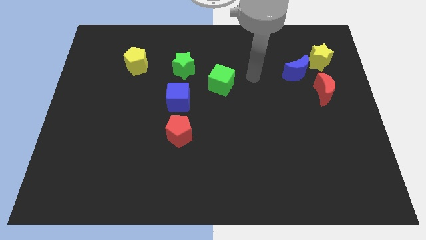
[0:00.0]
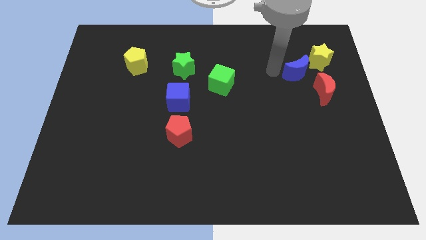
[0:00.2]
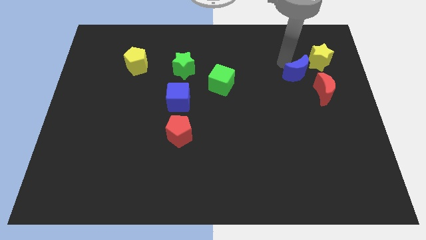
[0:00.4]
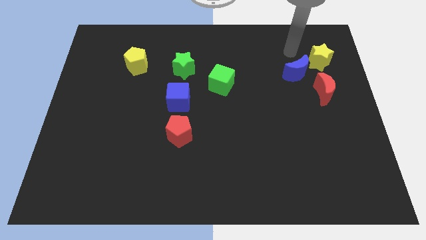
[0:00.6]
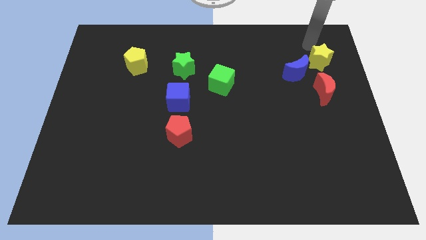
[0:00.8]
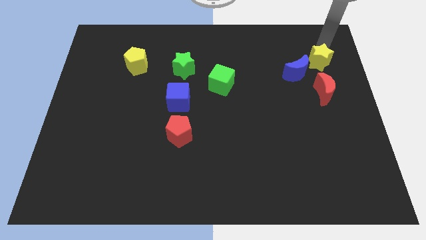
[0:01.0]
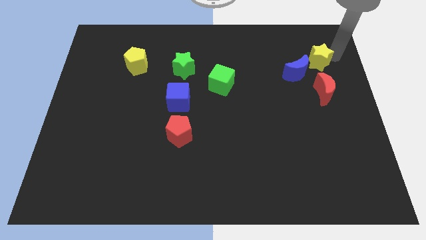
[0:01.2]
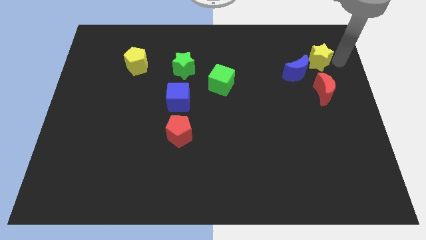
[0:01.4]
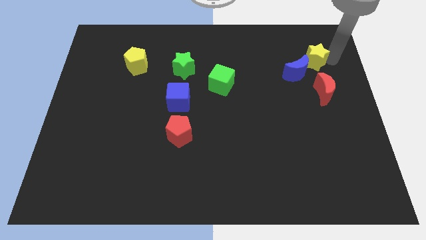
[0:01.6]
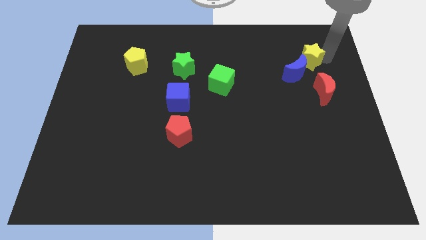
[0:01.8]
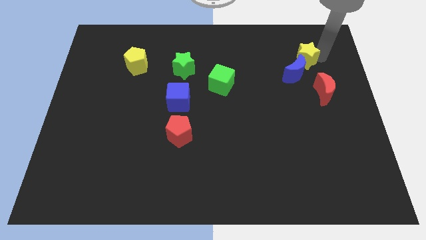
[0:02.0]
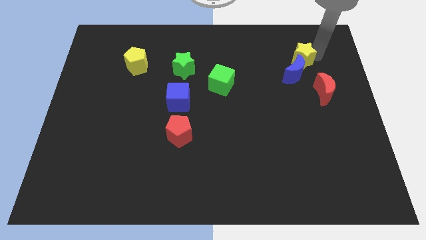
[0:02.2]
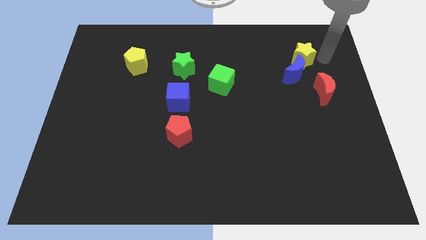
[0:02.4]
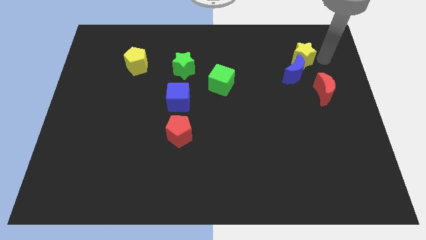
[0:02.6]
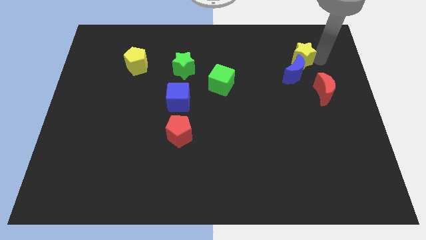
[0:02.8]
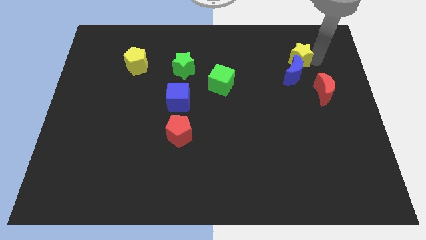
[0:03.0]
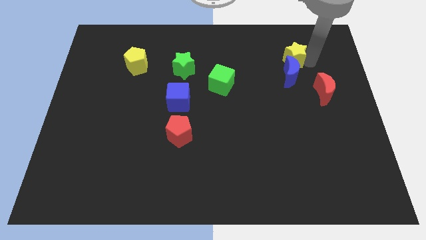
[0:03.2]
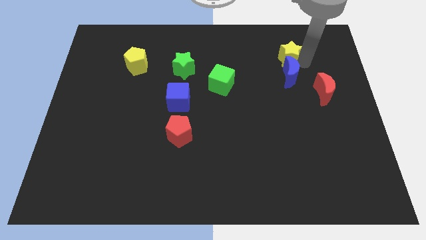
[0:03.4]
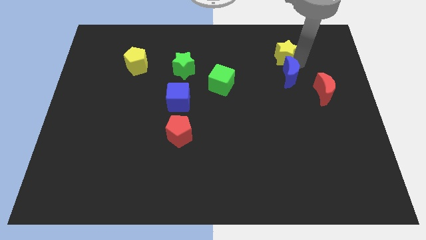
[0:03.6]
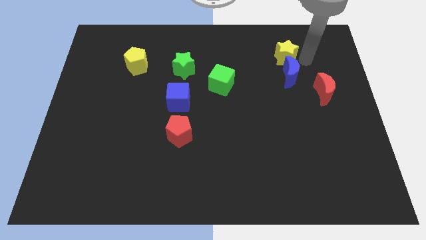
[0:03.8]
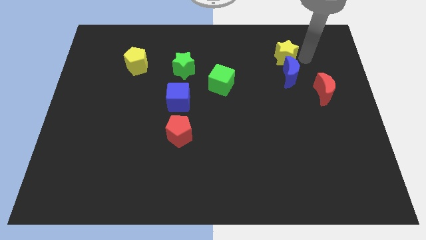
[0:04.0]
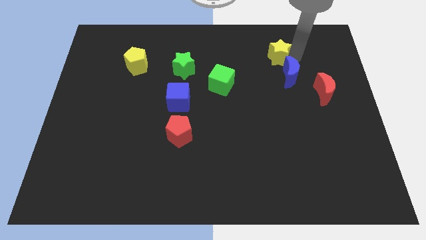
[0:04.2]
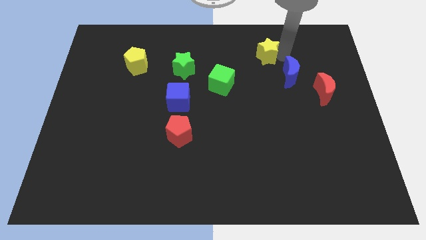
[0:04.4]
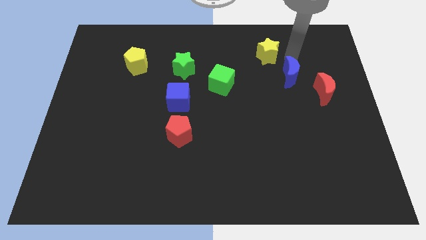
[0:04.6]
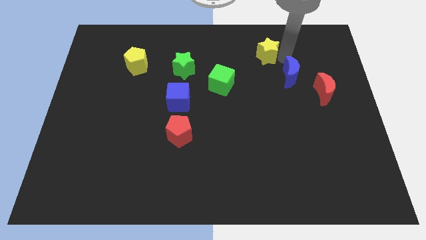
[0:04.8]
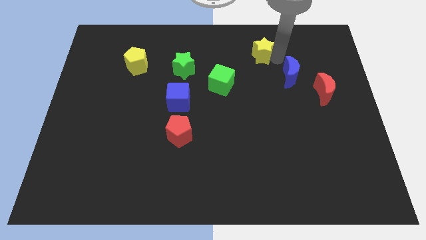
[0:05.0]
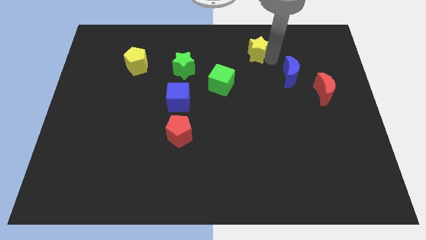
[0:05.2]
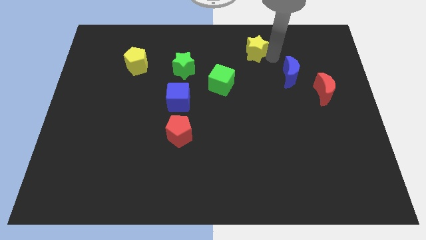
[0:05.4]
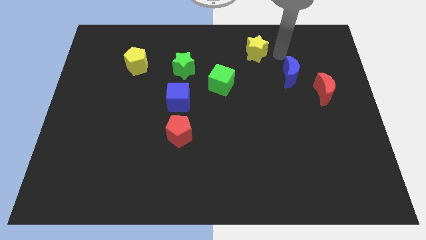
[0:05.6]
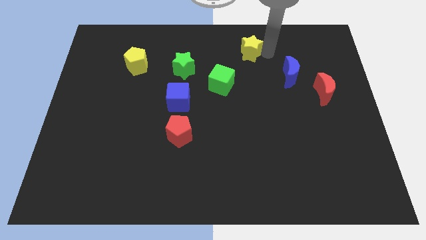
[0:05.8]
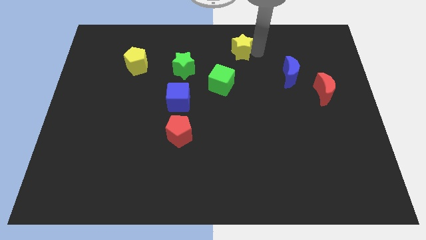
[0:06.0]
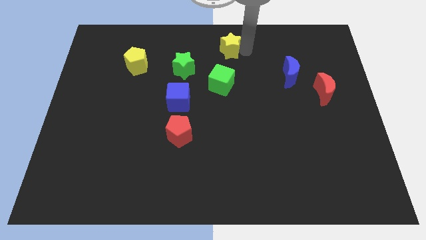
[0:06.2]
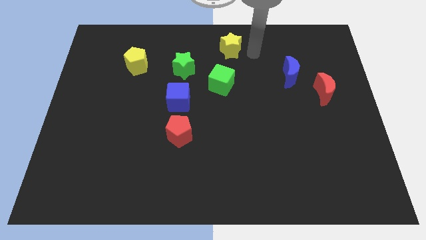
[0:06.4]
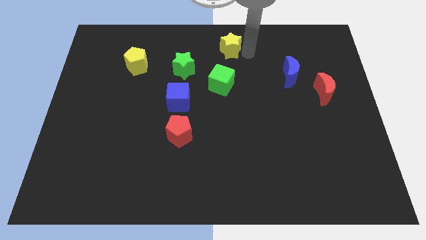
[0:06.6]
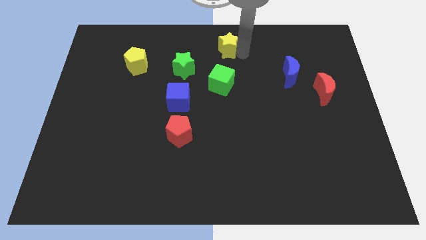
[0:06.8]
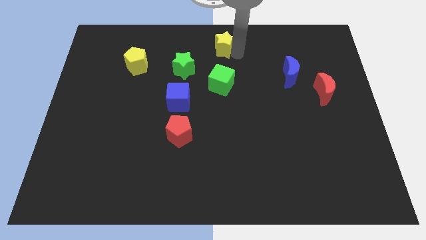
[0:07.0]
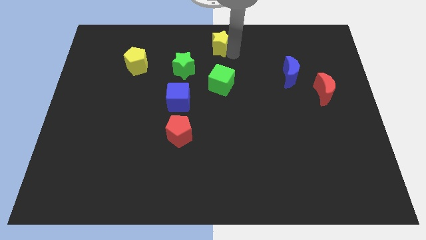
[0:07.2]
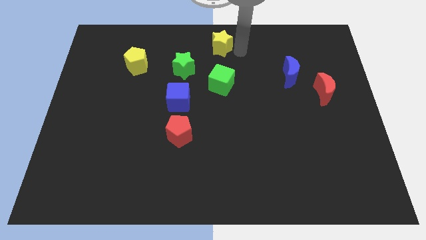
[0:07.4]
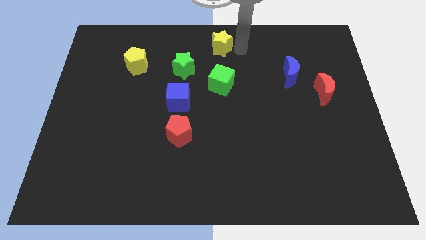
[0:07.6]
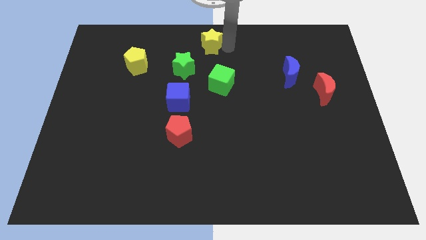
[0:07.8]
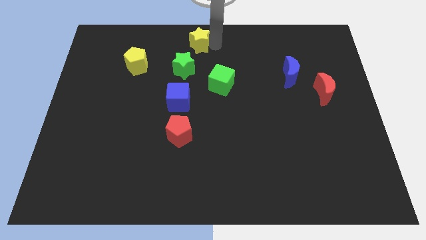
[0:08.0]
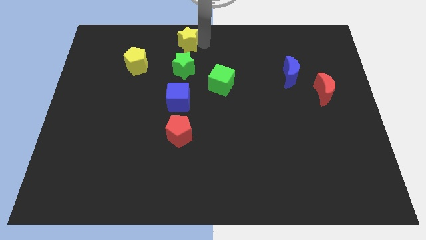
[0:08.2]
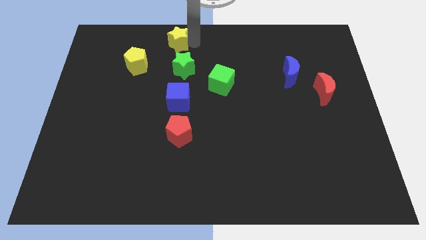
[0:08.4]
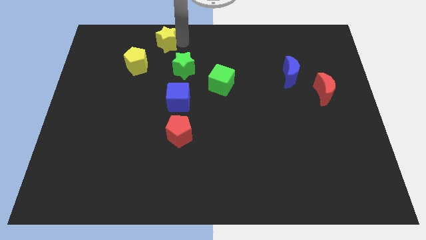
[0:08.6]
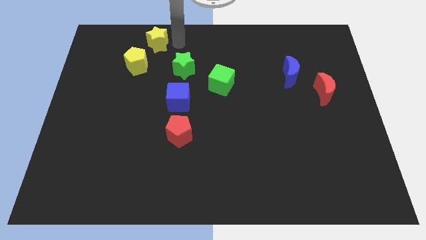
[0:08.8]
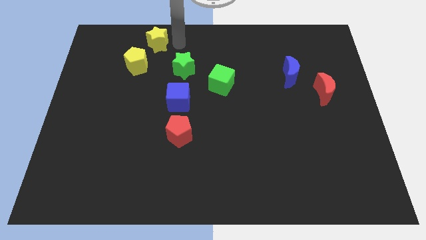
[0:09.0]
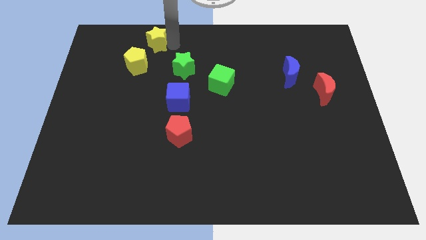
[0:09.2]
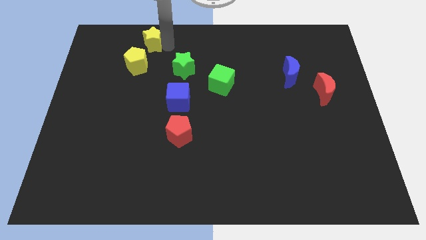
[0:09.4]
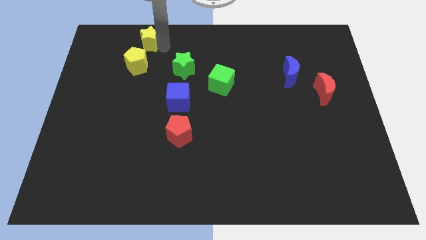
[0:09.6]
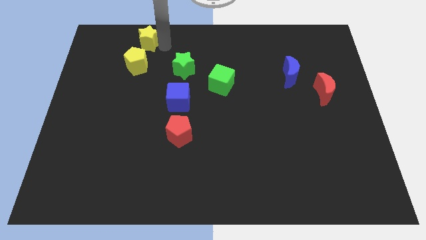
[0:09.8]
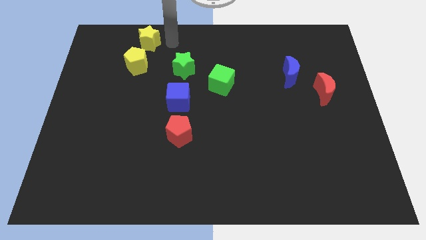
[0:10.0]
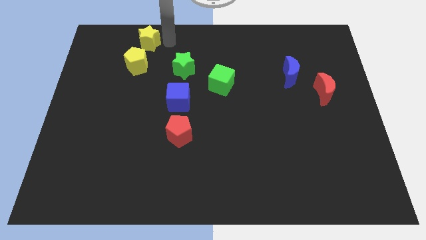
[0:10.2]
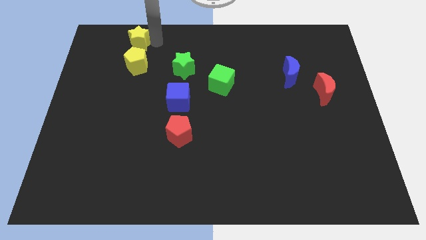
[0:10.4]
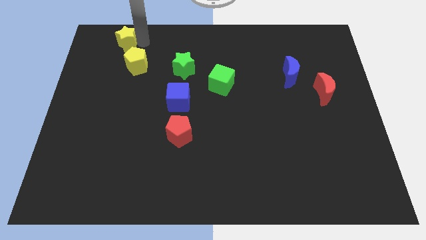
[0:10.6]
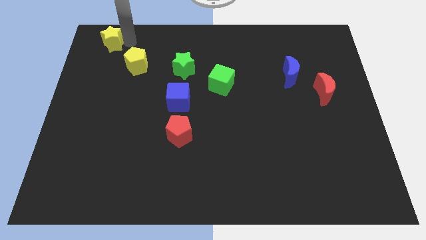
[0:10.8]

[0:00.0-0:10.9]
move the yellow star to the top left
